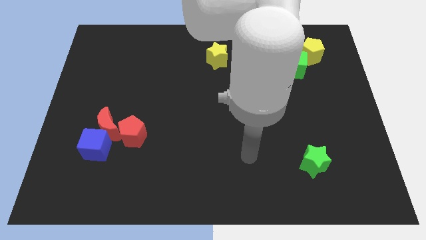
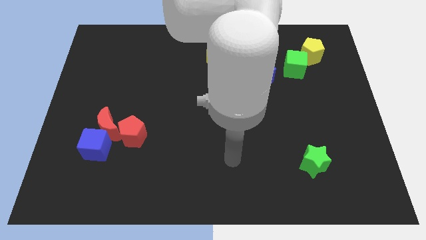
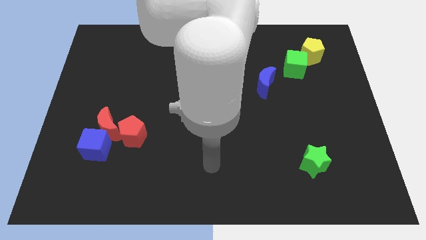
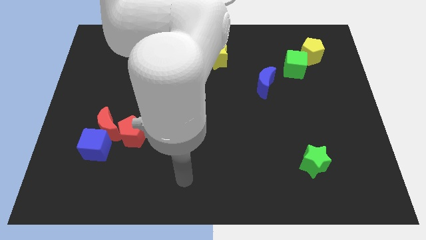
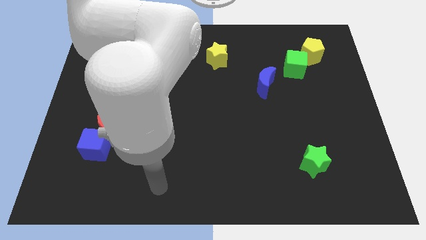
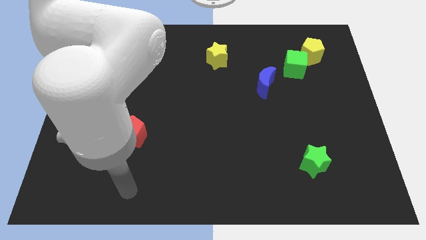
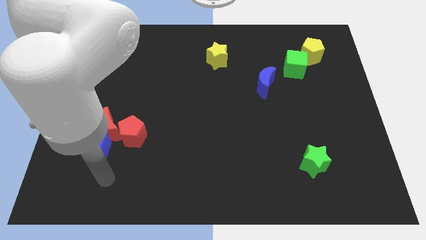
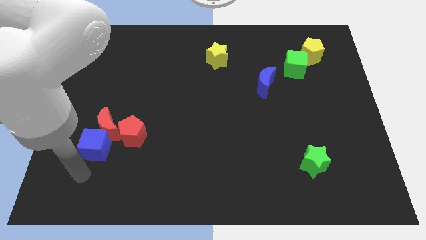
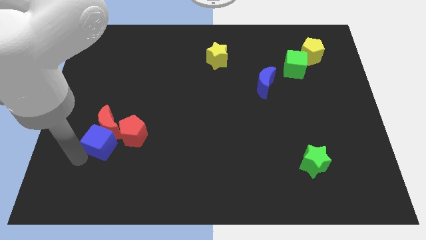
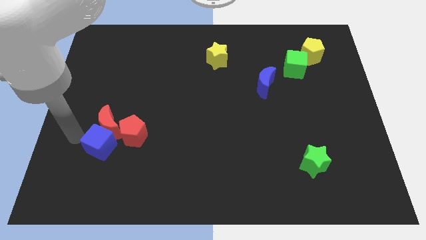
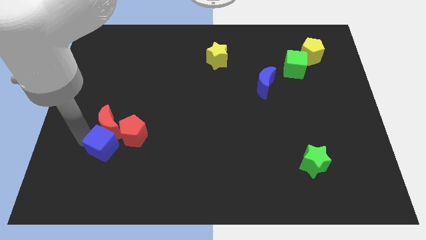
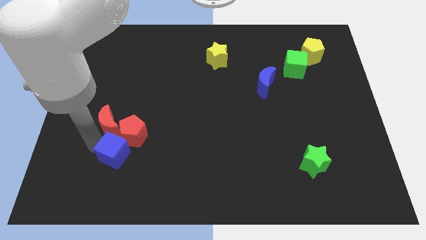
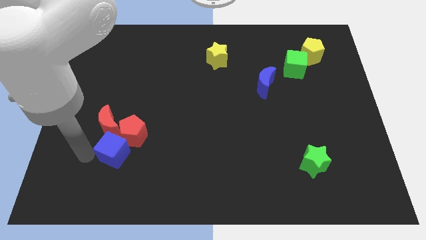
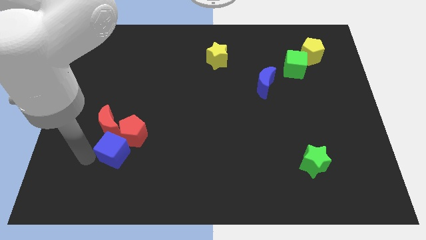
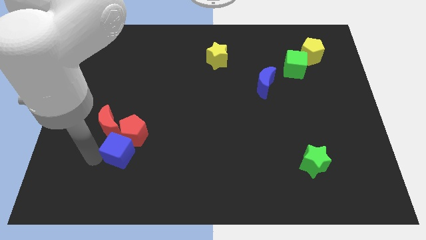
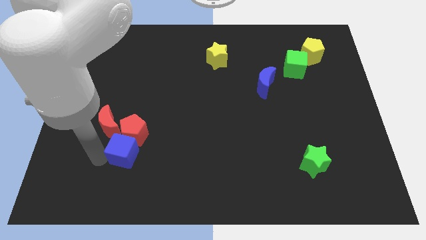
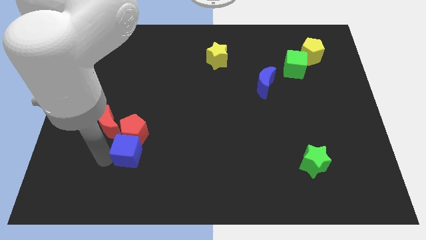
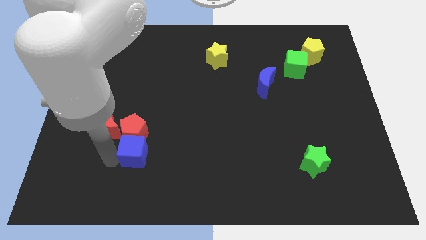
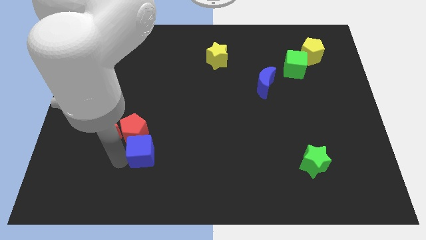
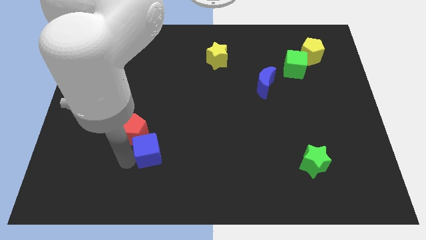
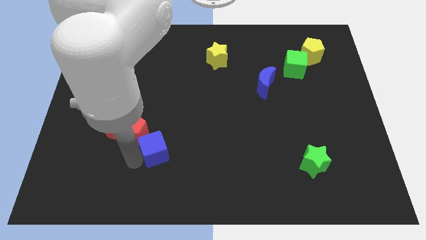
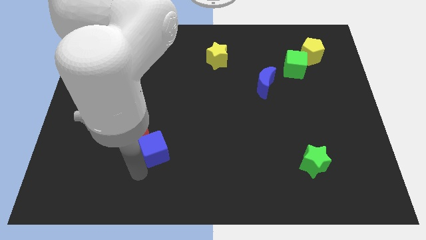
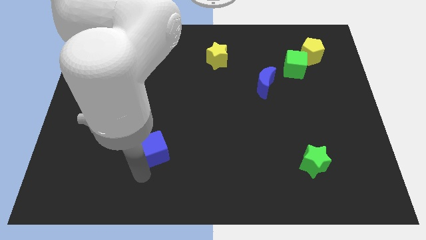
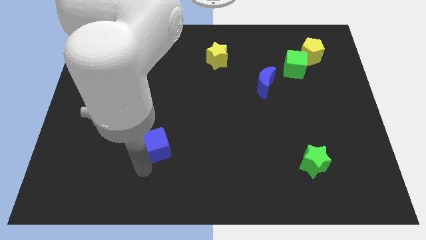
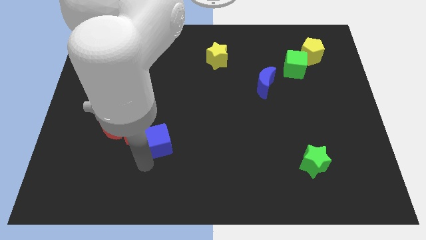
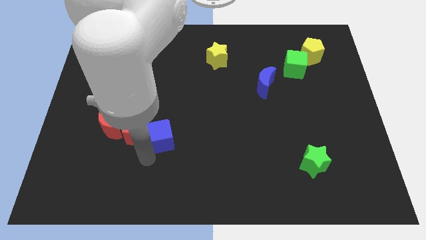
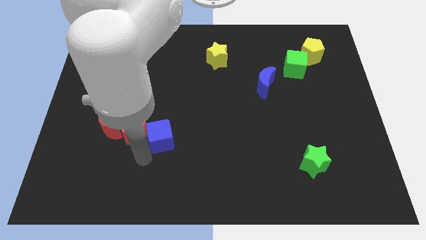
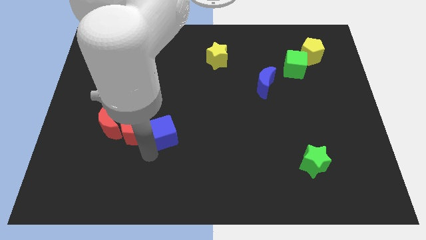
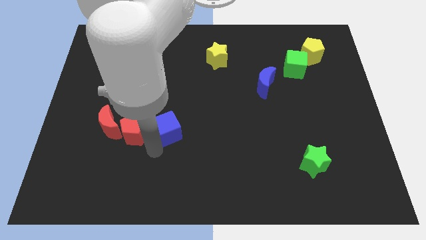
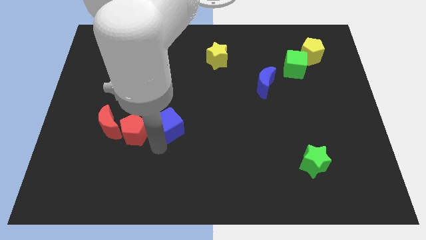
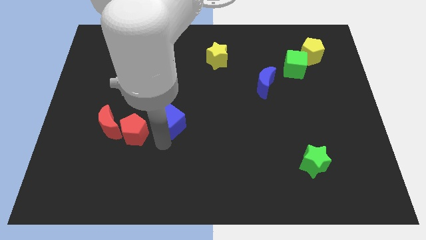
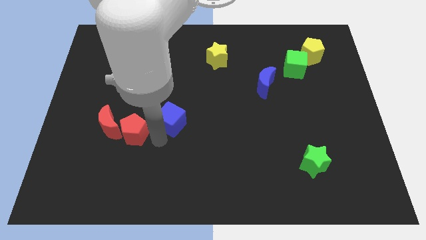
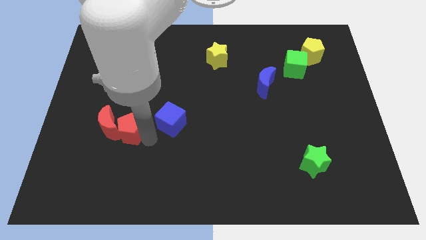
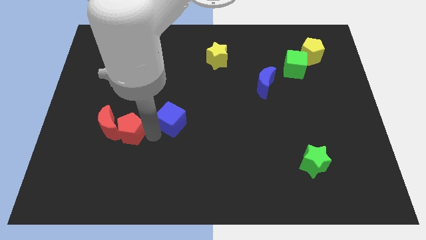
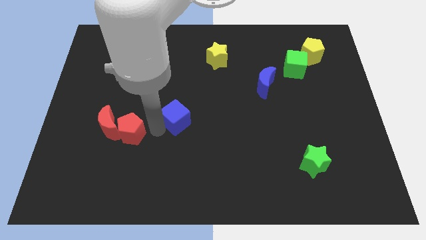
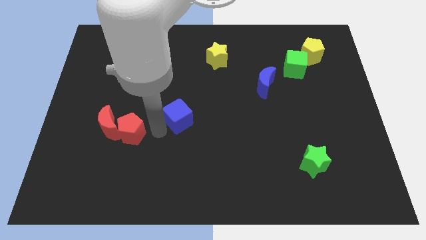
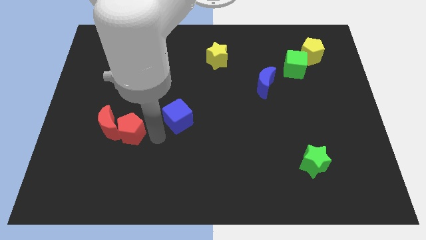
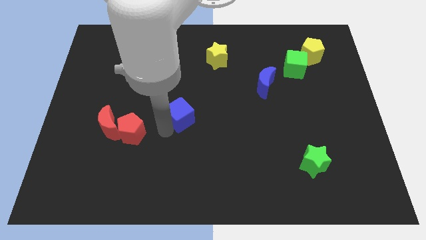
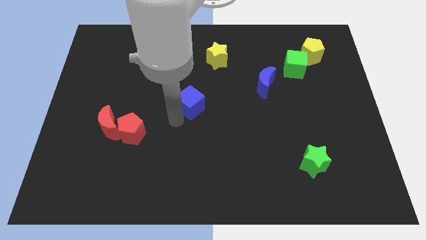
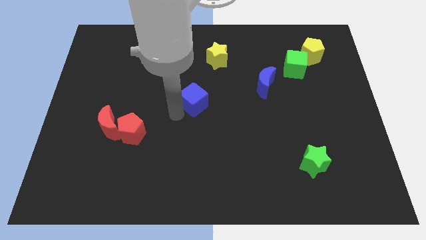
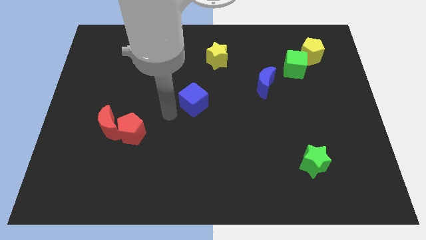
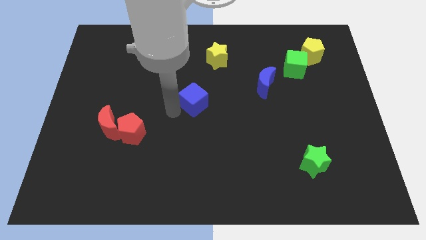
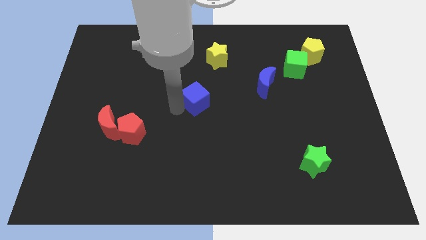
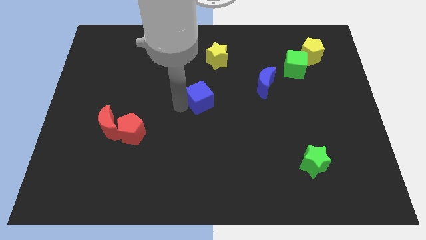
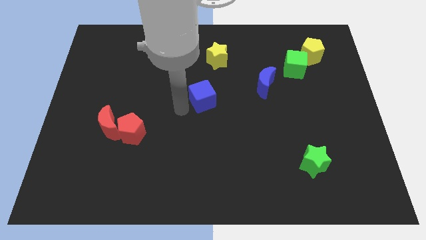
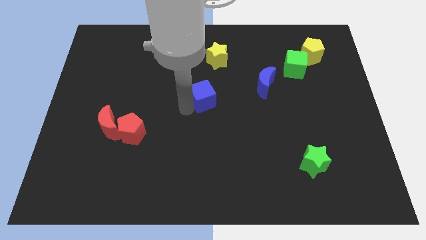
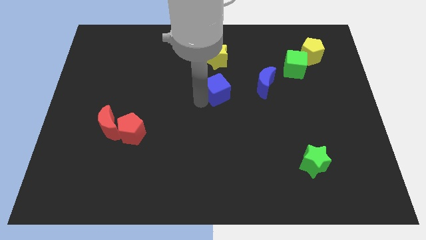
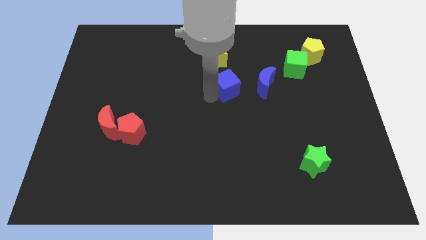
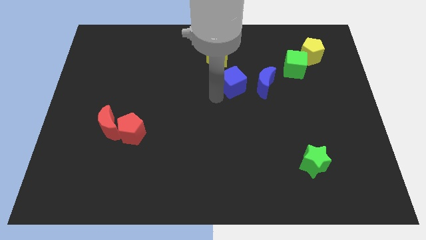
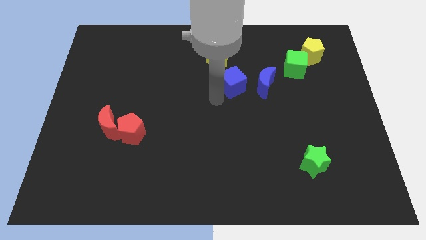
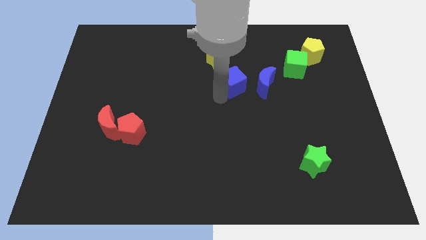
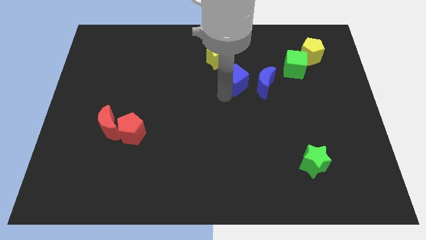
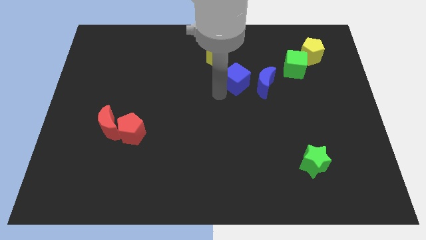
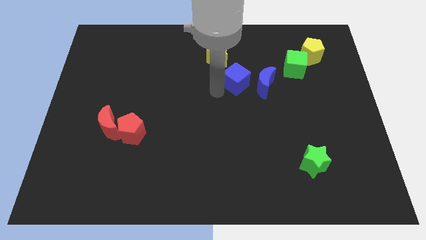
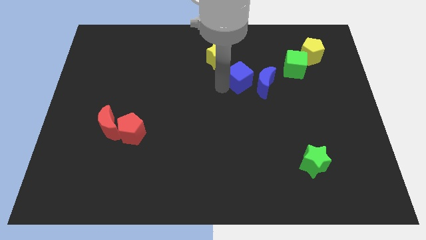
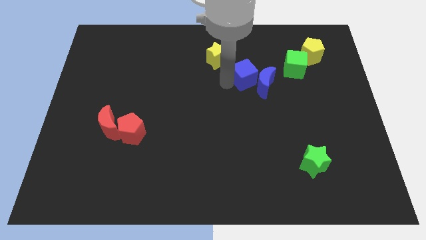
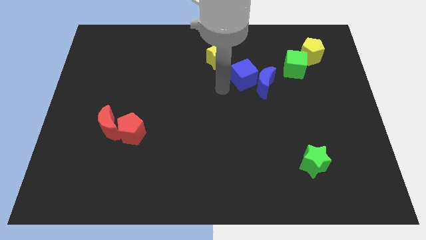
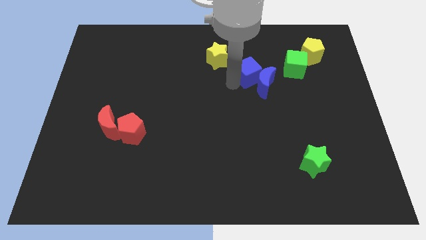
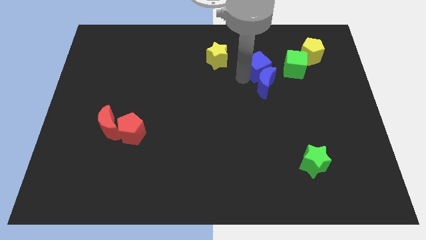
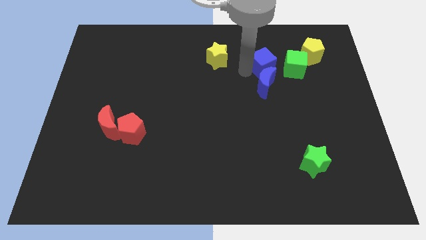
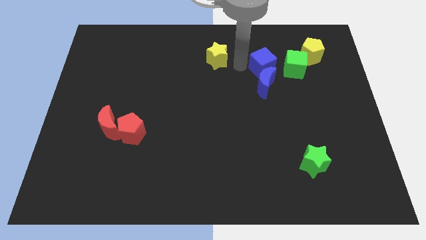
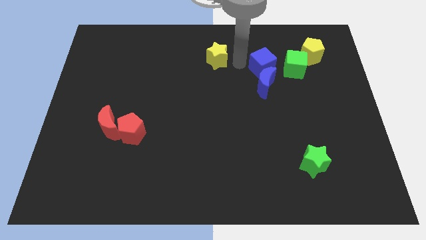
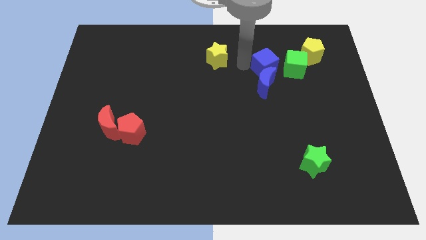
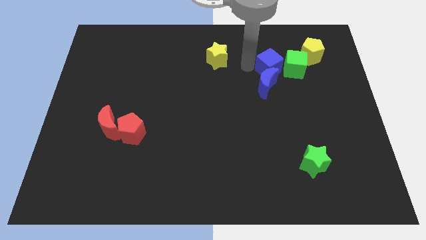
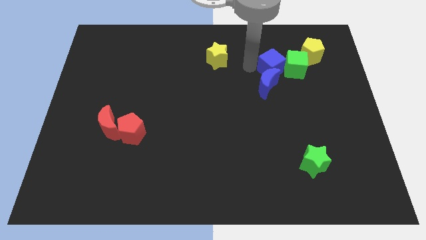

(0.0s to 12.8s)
put the blue cube close to the green cube
